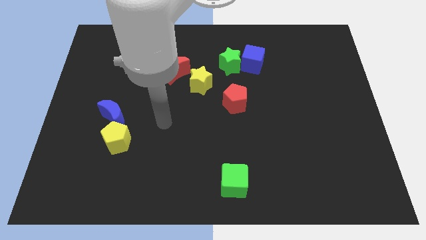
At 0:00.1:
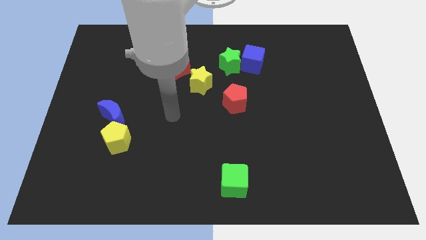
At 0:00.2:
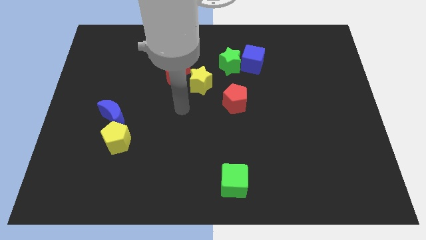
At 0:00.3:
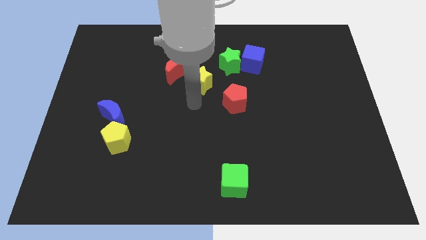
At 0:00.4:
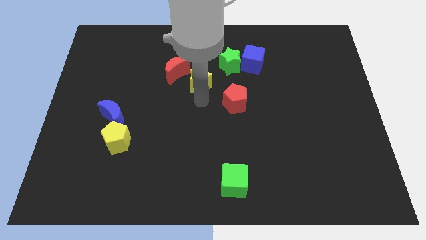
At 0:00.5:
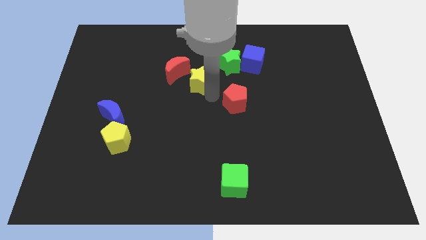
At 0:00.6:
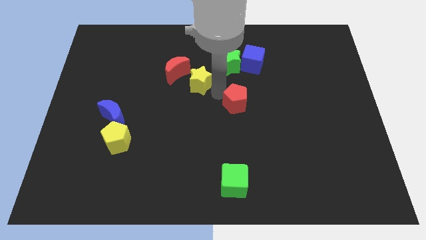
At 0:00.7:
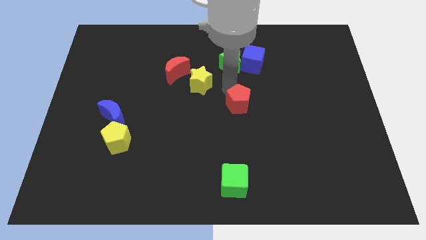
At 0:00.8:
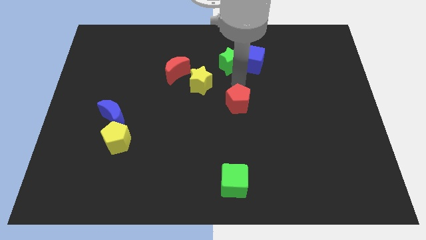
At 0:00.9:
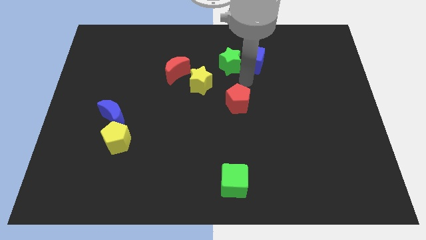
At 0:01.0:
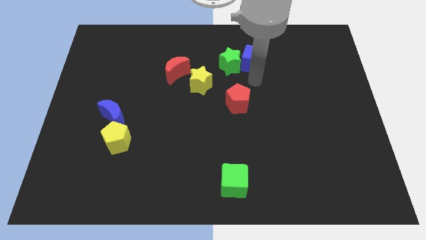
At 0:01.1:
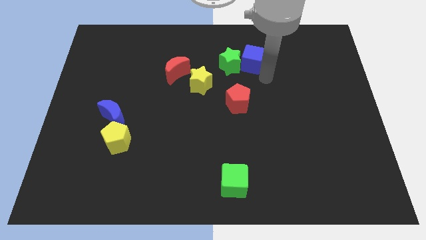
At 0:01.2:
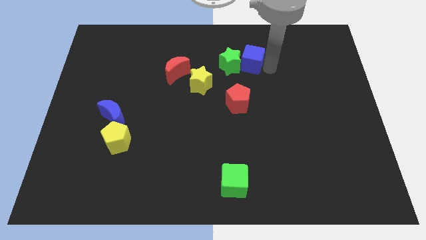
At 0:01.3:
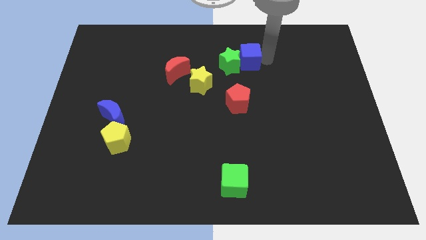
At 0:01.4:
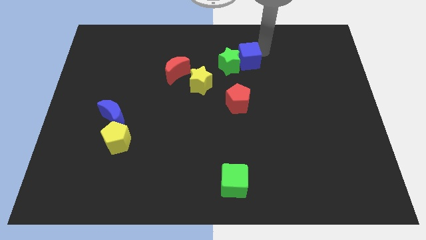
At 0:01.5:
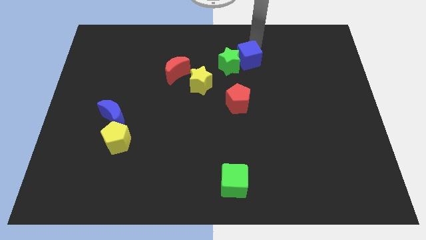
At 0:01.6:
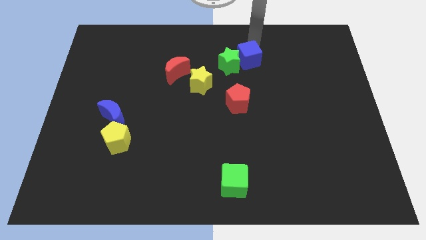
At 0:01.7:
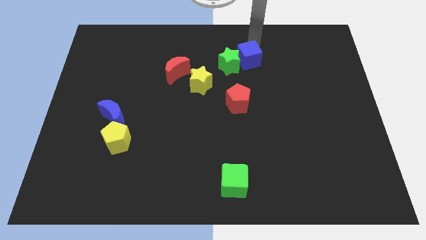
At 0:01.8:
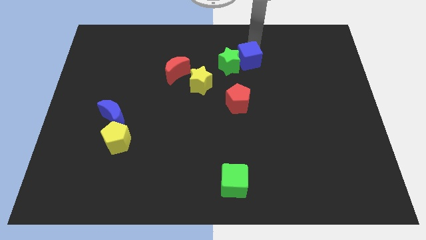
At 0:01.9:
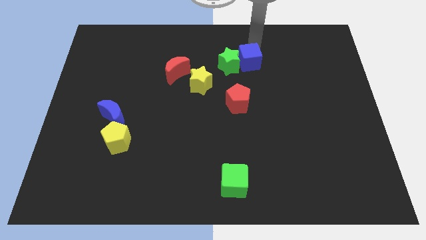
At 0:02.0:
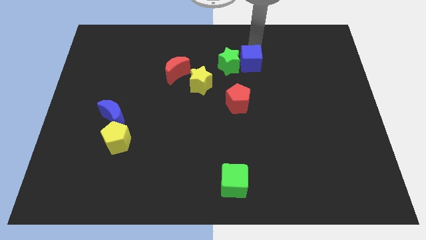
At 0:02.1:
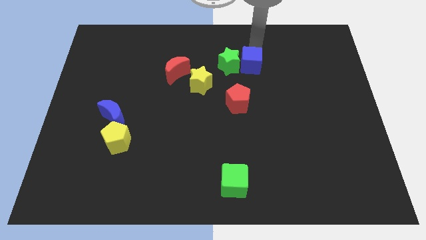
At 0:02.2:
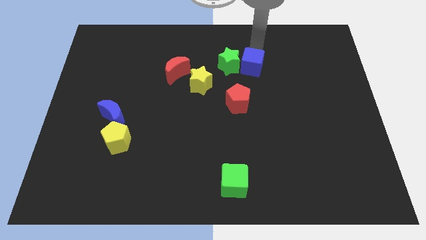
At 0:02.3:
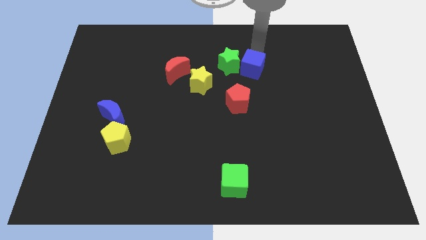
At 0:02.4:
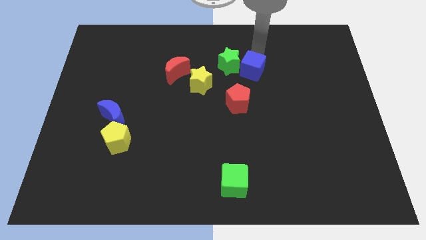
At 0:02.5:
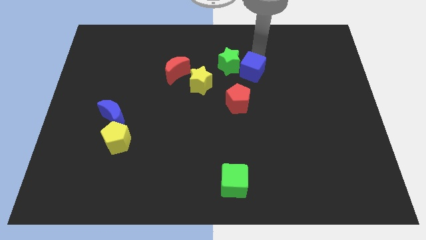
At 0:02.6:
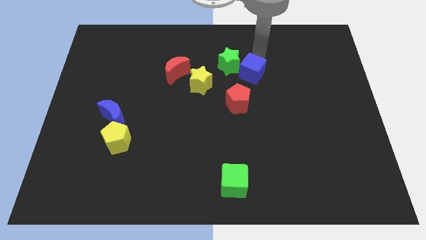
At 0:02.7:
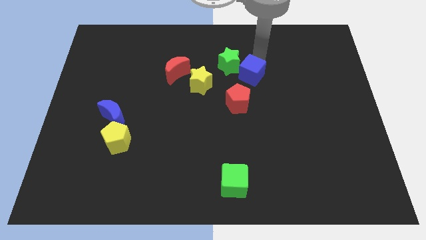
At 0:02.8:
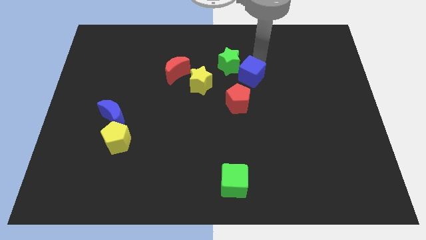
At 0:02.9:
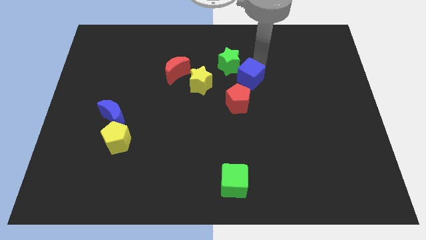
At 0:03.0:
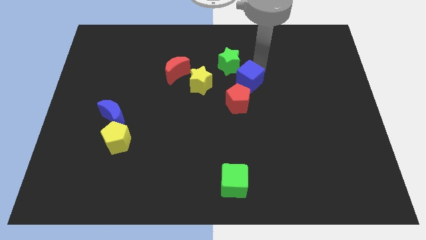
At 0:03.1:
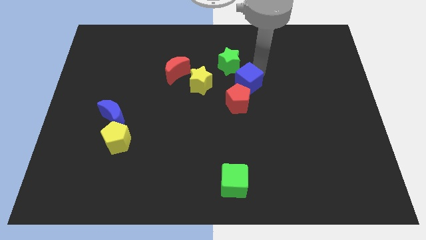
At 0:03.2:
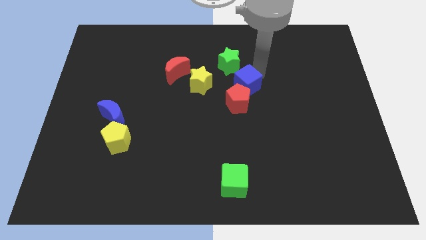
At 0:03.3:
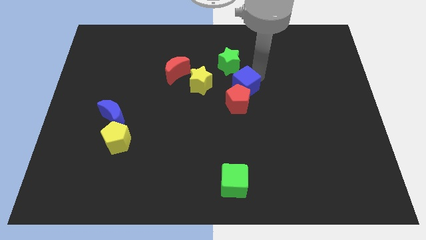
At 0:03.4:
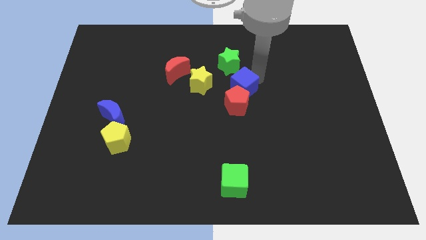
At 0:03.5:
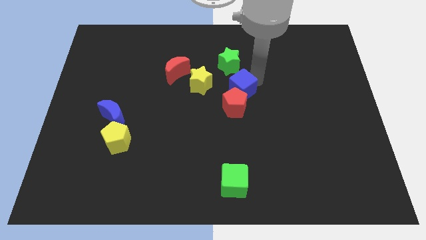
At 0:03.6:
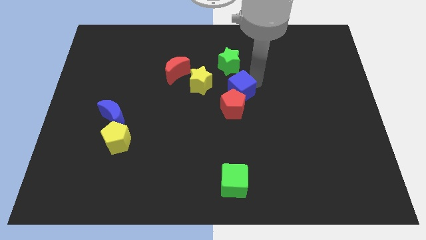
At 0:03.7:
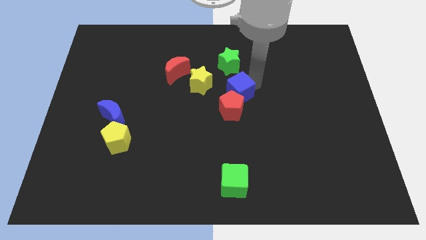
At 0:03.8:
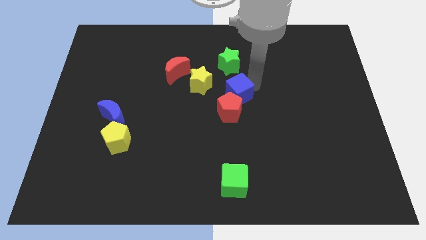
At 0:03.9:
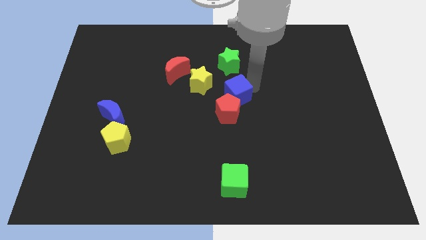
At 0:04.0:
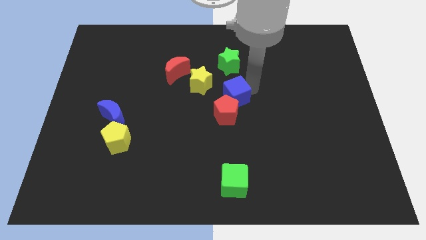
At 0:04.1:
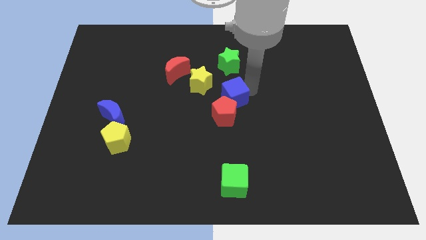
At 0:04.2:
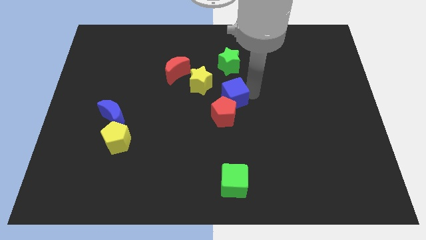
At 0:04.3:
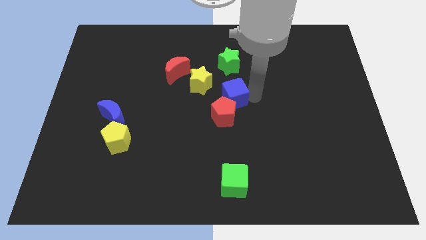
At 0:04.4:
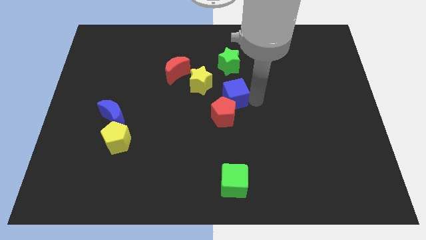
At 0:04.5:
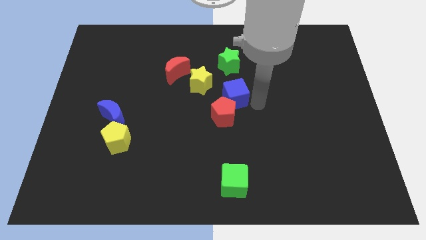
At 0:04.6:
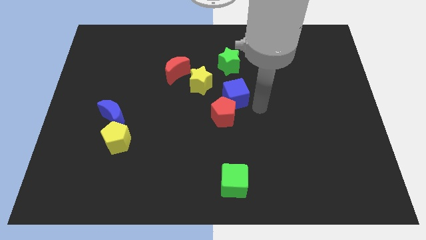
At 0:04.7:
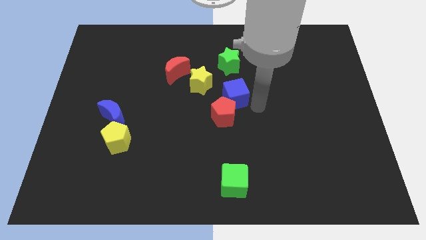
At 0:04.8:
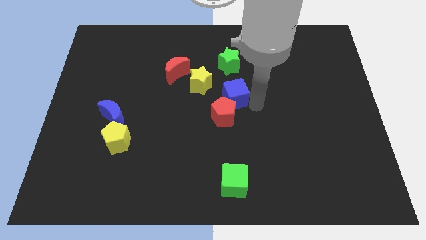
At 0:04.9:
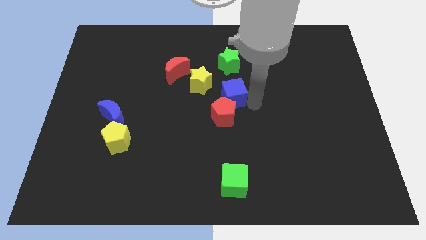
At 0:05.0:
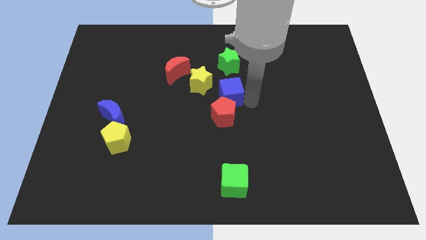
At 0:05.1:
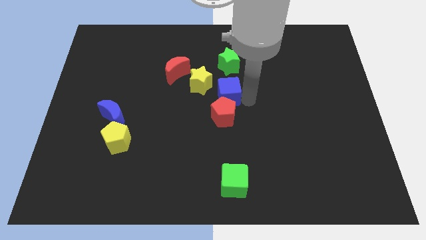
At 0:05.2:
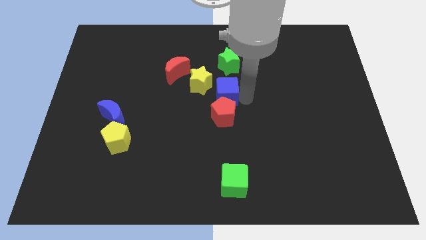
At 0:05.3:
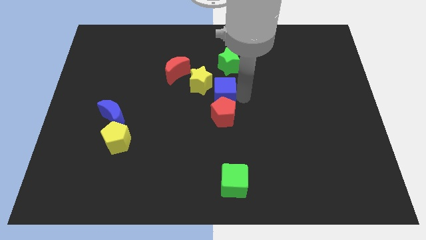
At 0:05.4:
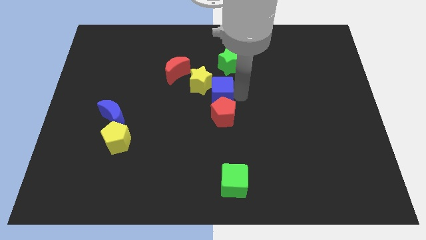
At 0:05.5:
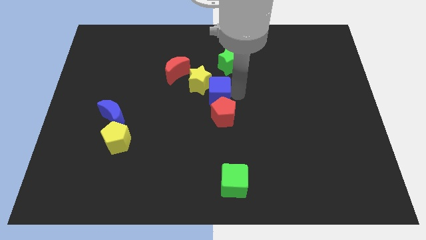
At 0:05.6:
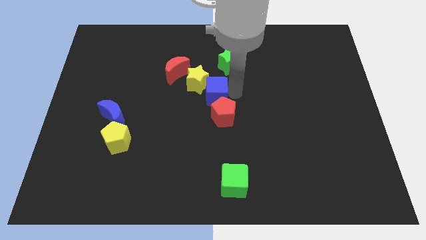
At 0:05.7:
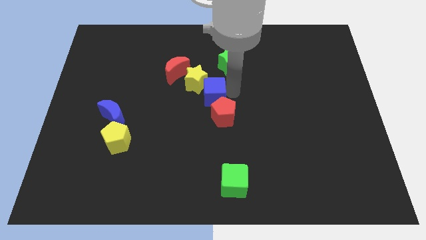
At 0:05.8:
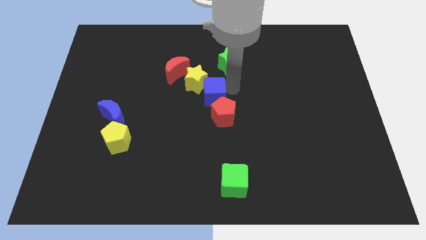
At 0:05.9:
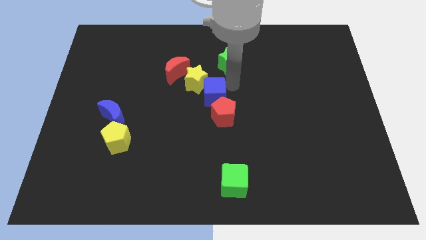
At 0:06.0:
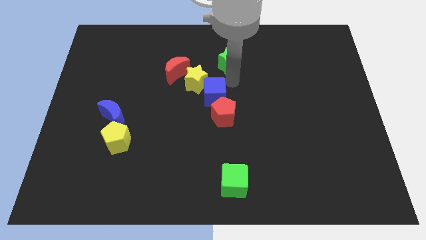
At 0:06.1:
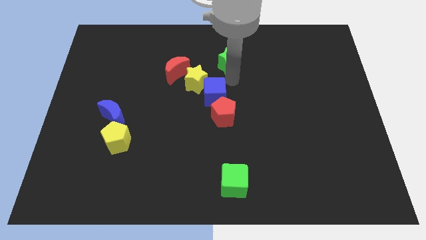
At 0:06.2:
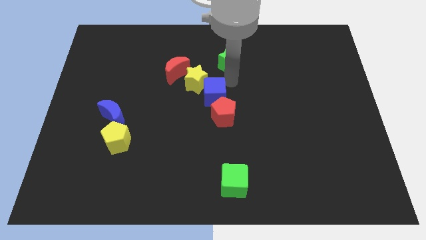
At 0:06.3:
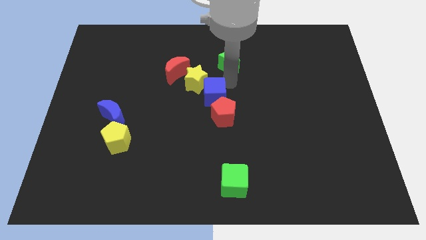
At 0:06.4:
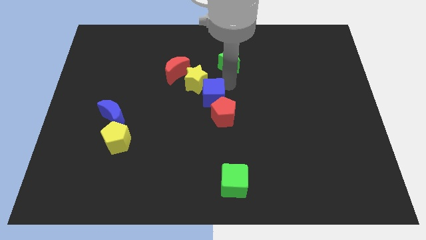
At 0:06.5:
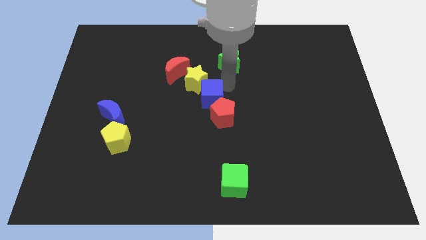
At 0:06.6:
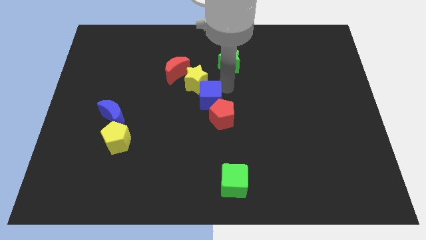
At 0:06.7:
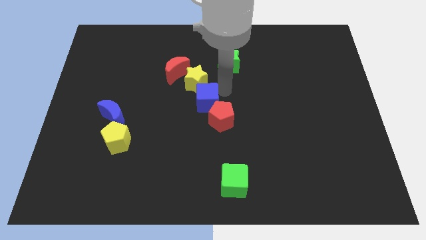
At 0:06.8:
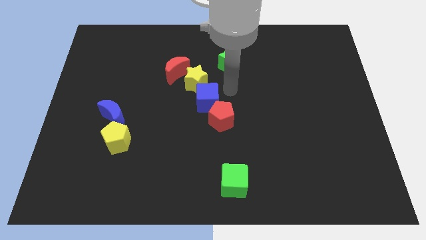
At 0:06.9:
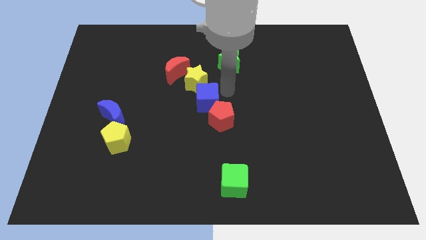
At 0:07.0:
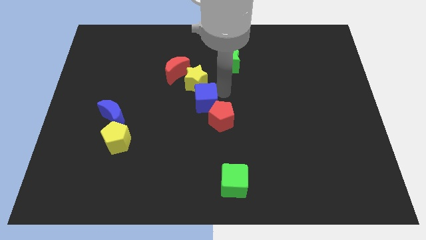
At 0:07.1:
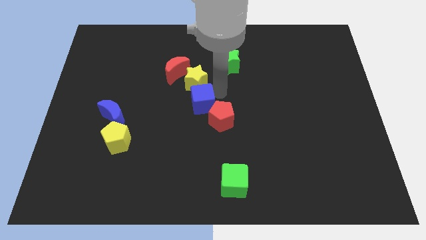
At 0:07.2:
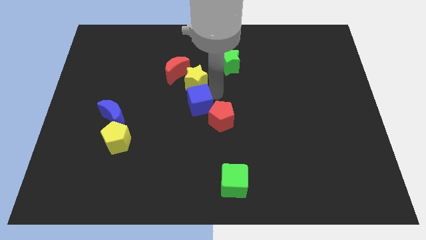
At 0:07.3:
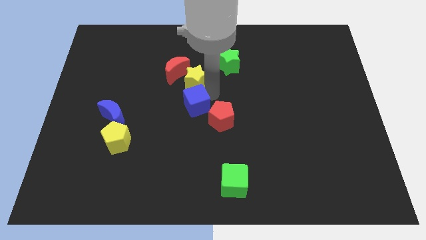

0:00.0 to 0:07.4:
slide the blue cube downwards and to the left diagonally
